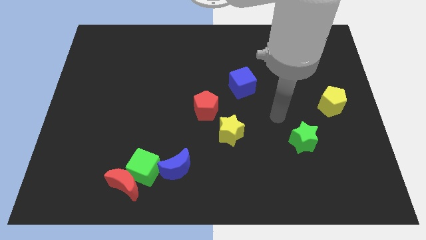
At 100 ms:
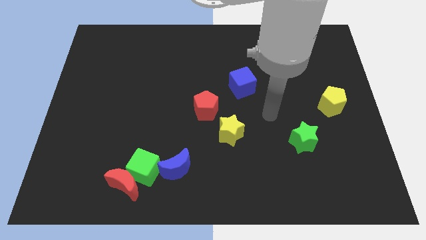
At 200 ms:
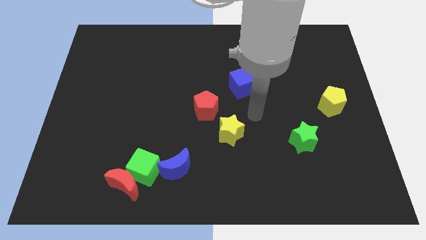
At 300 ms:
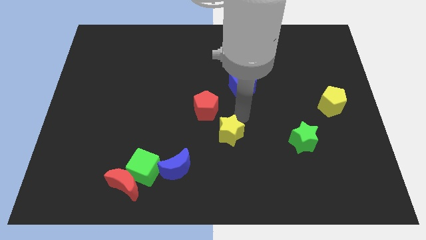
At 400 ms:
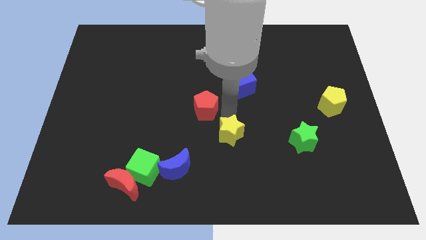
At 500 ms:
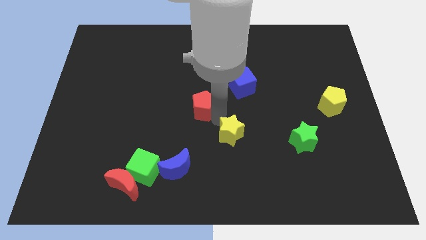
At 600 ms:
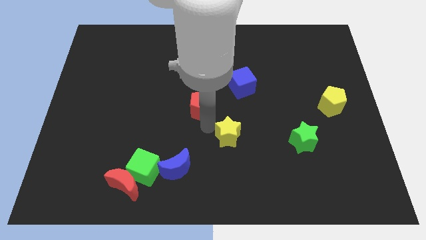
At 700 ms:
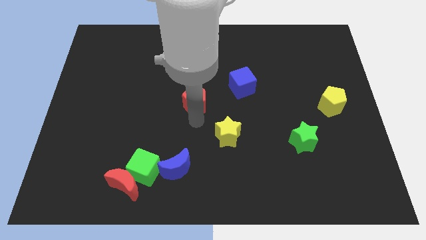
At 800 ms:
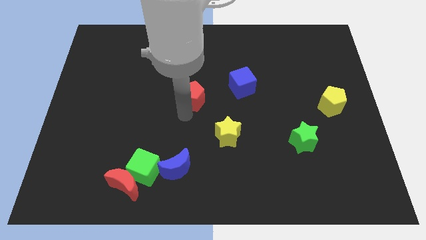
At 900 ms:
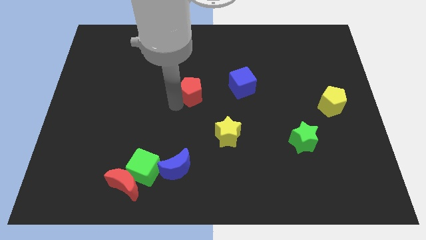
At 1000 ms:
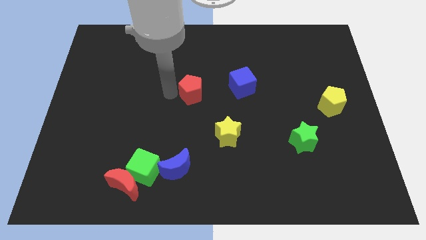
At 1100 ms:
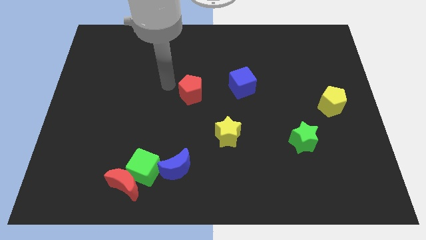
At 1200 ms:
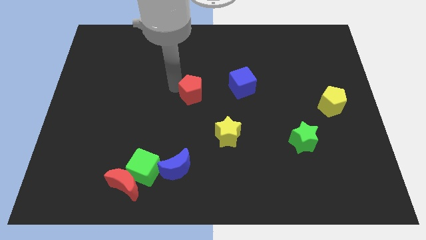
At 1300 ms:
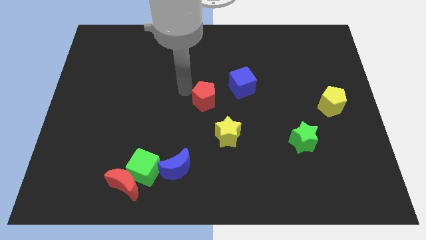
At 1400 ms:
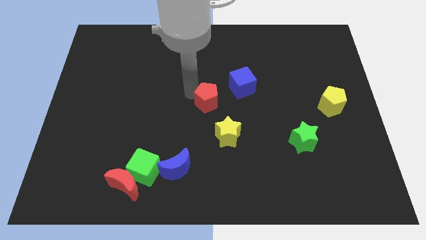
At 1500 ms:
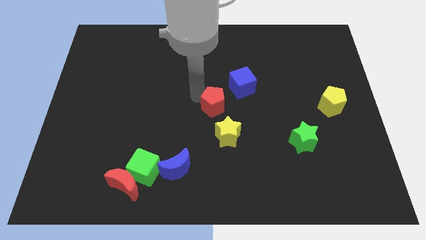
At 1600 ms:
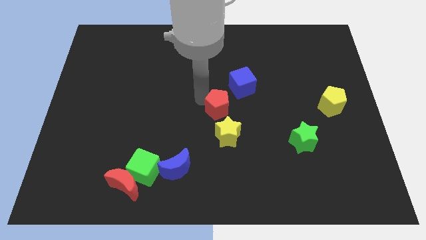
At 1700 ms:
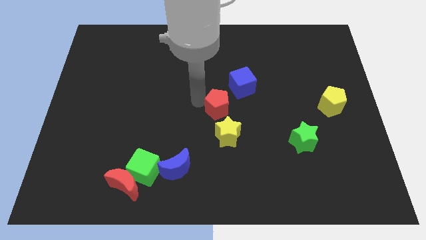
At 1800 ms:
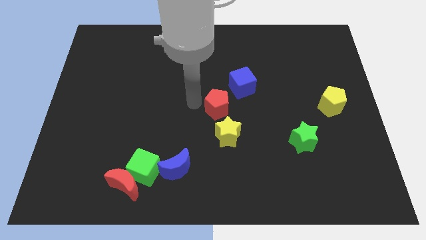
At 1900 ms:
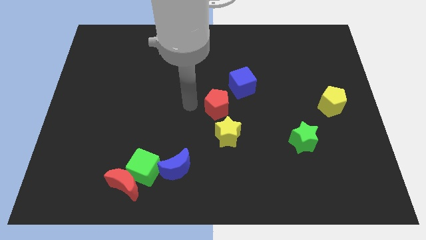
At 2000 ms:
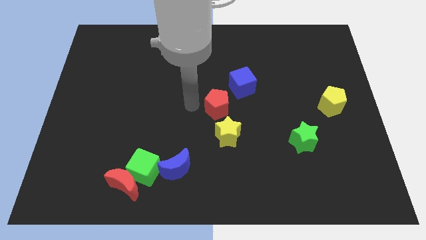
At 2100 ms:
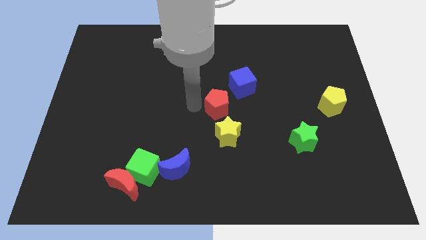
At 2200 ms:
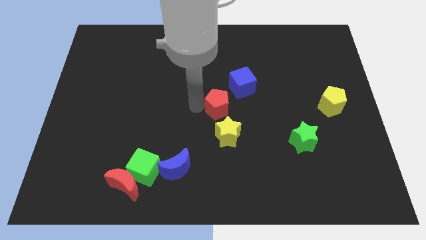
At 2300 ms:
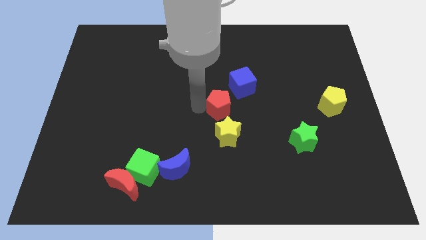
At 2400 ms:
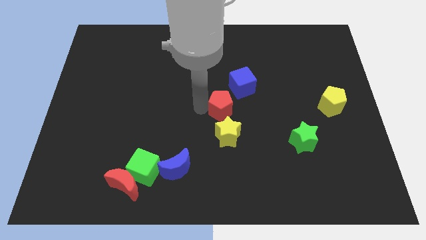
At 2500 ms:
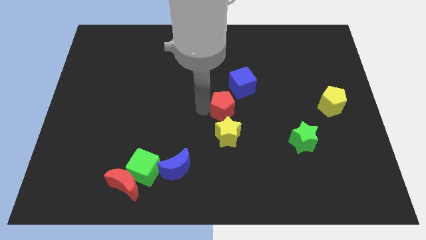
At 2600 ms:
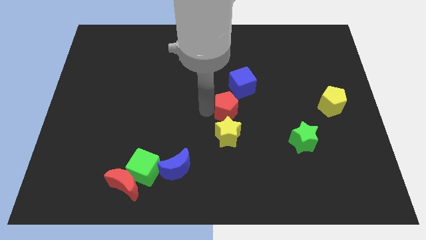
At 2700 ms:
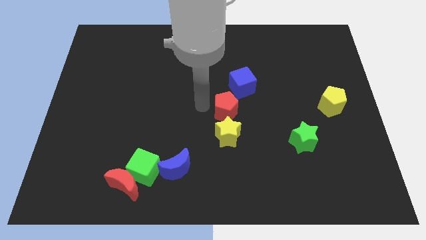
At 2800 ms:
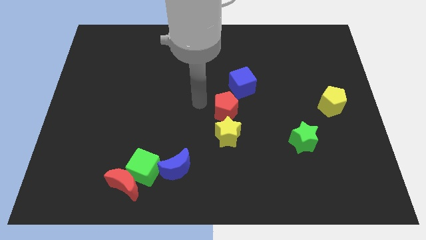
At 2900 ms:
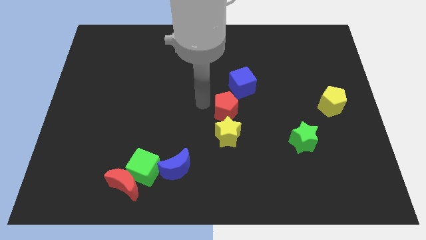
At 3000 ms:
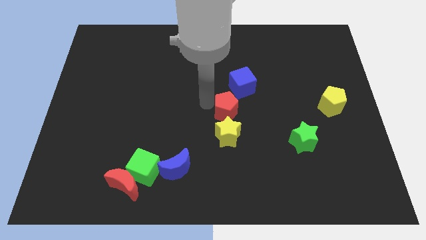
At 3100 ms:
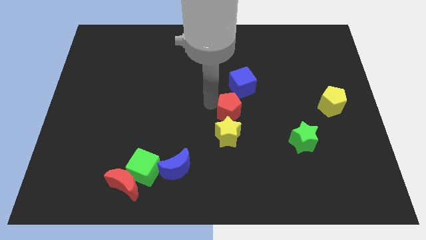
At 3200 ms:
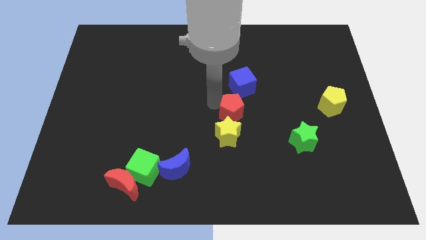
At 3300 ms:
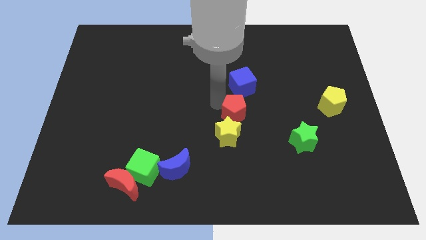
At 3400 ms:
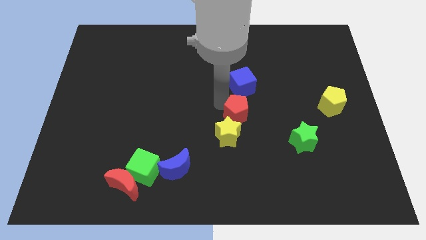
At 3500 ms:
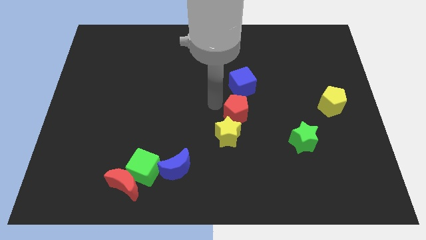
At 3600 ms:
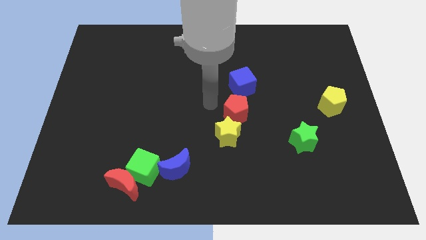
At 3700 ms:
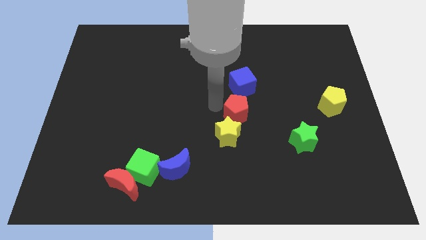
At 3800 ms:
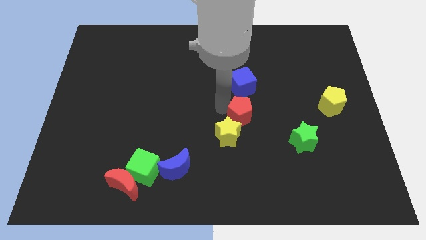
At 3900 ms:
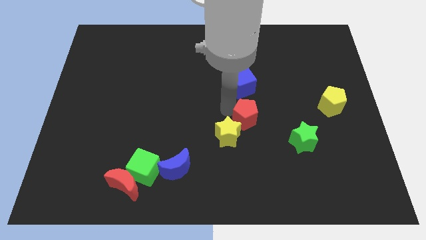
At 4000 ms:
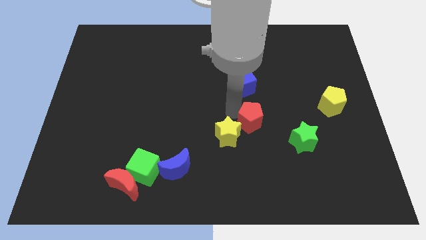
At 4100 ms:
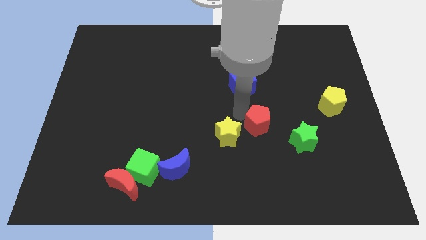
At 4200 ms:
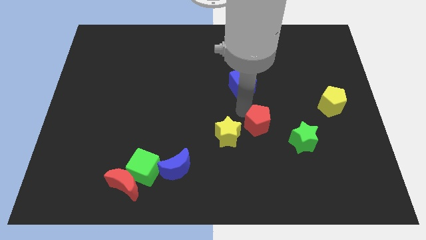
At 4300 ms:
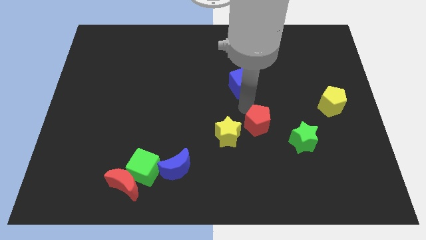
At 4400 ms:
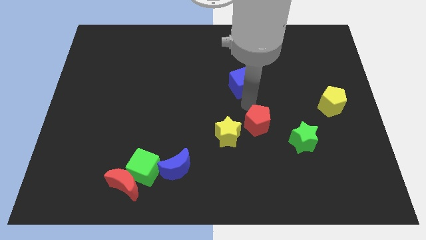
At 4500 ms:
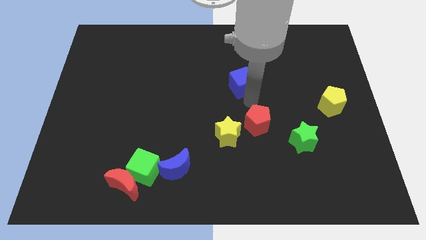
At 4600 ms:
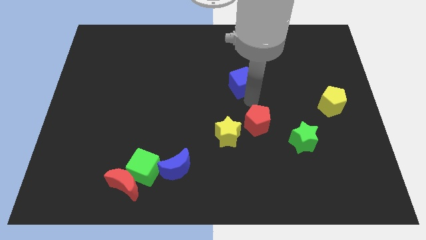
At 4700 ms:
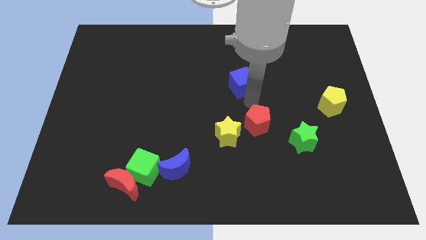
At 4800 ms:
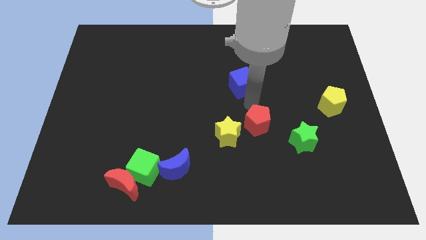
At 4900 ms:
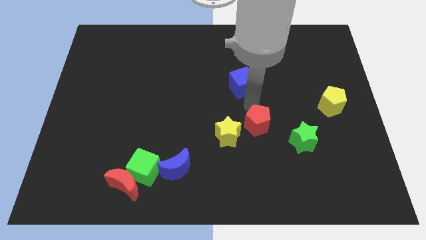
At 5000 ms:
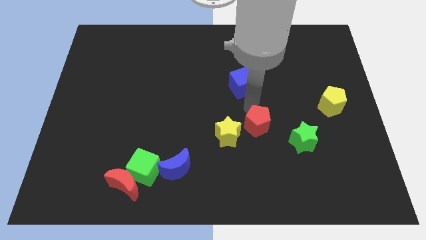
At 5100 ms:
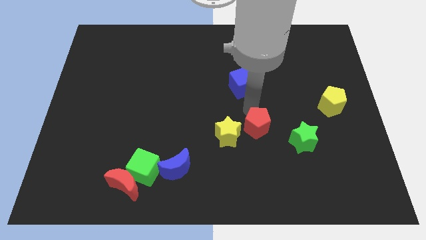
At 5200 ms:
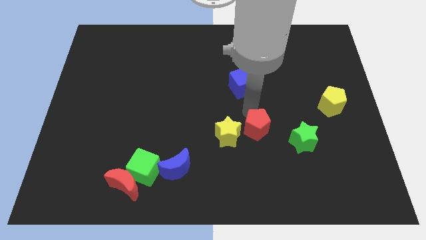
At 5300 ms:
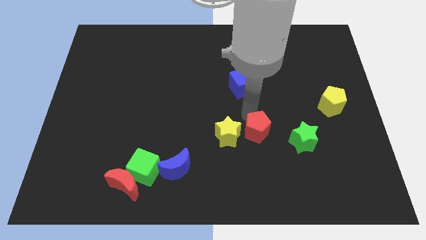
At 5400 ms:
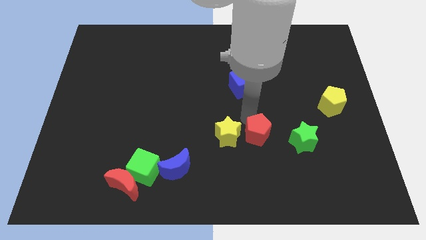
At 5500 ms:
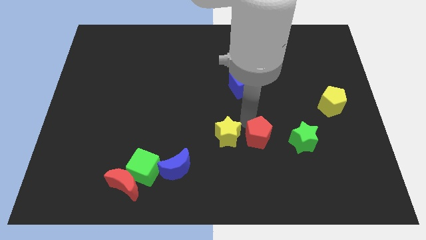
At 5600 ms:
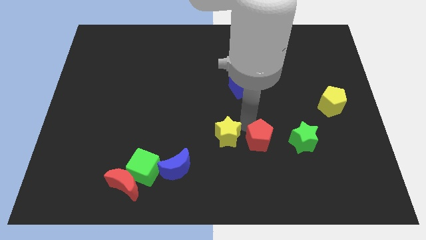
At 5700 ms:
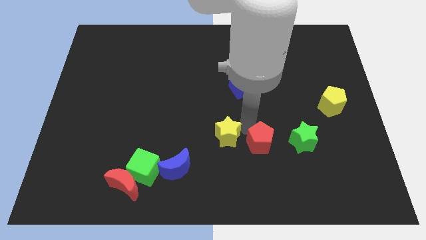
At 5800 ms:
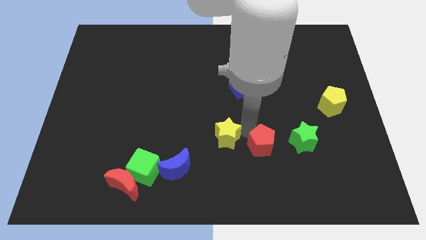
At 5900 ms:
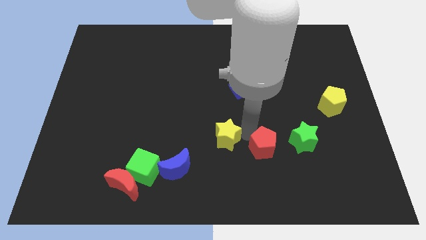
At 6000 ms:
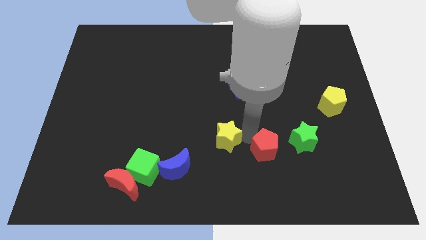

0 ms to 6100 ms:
move the red pentagon to the bottom left of the green star

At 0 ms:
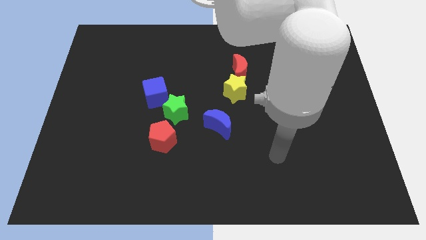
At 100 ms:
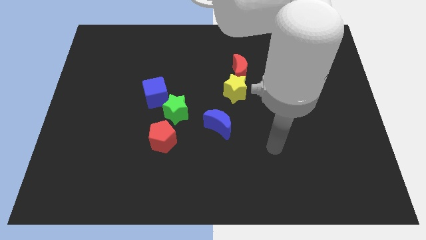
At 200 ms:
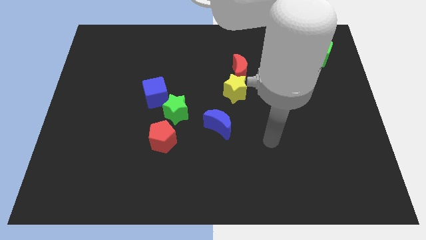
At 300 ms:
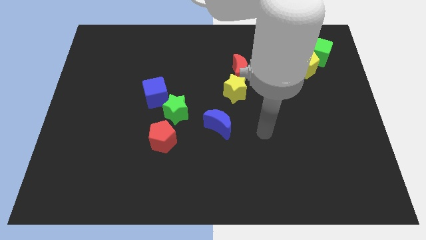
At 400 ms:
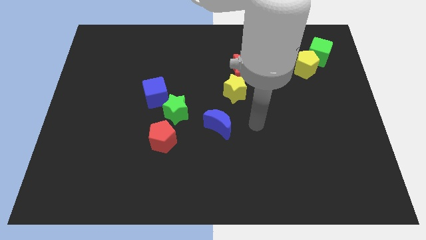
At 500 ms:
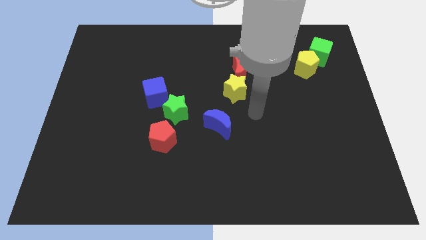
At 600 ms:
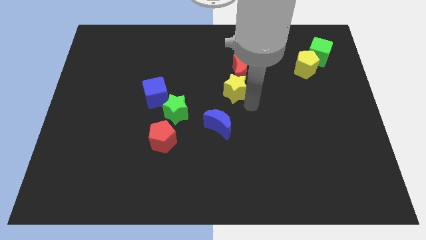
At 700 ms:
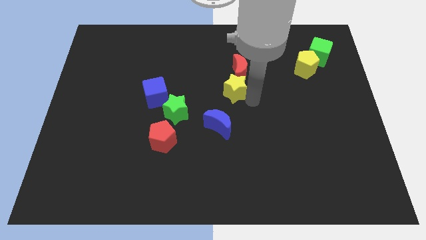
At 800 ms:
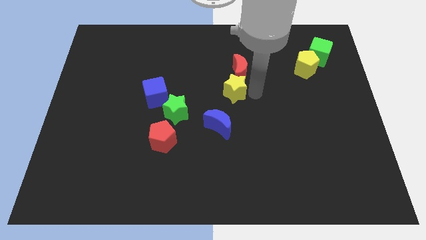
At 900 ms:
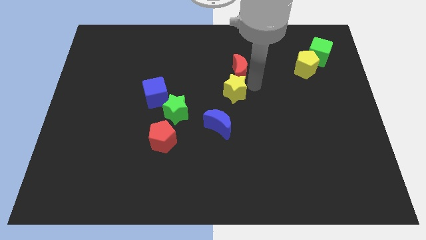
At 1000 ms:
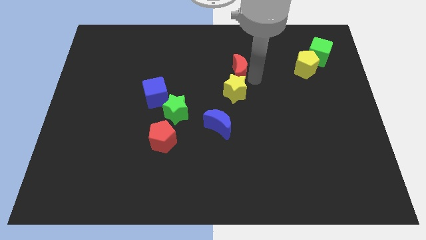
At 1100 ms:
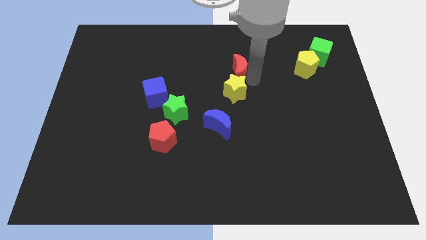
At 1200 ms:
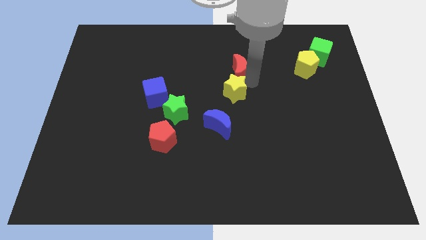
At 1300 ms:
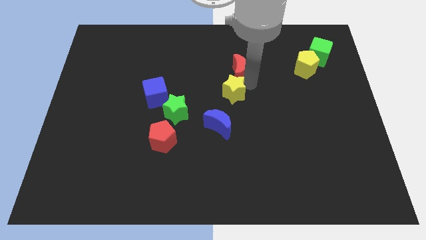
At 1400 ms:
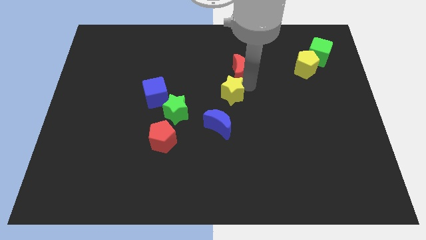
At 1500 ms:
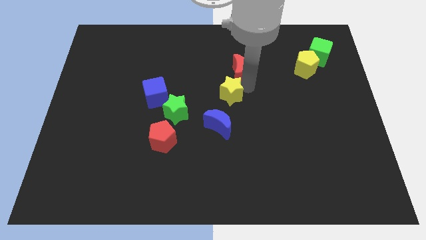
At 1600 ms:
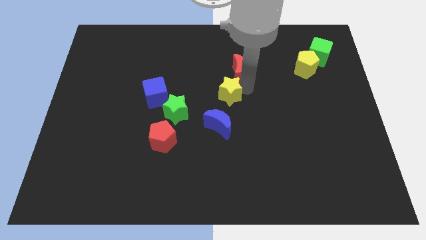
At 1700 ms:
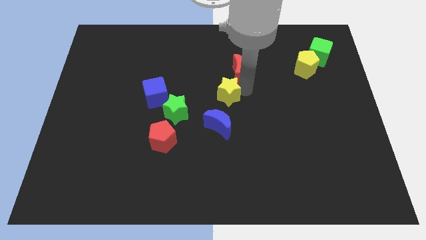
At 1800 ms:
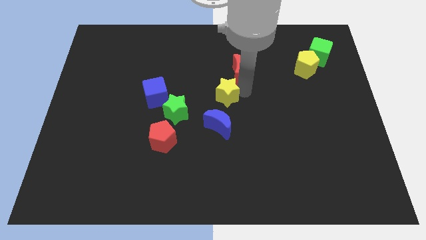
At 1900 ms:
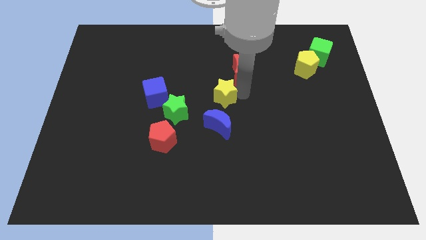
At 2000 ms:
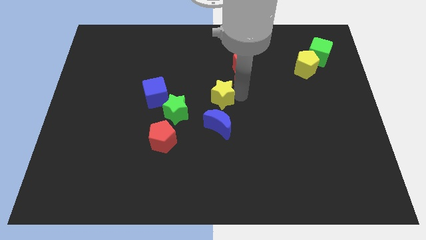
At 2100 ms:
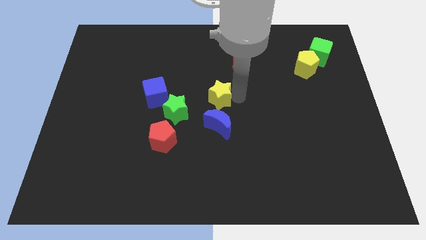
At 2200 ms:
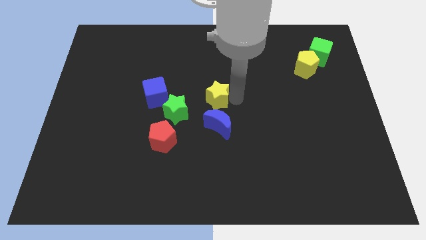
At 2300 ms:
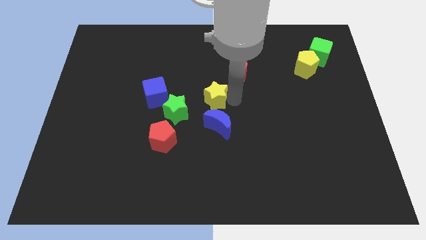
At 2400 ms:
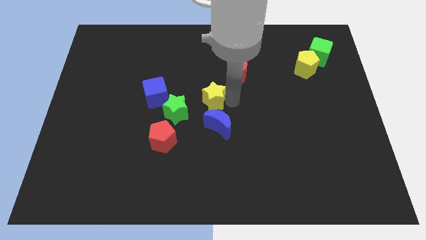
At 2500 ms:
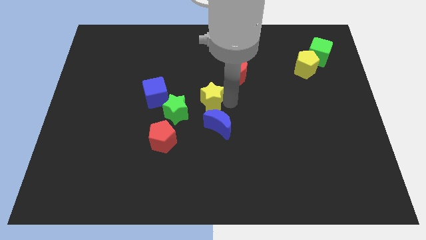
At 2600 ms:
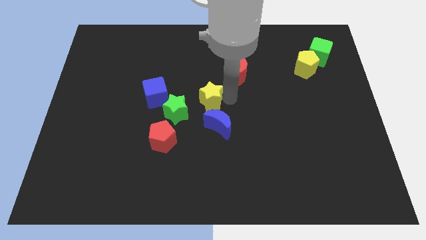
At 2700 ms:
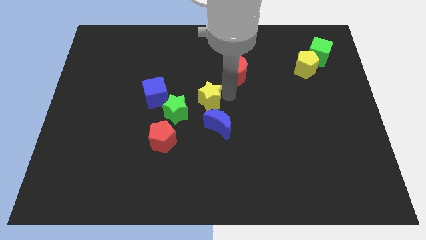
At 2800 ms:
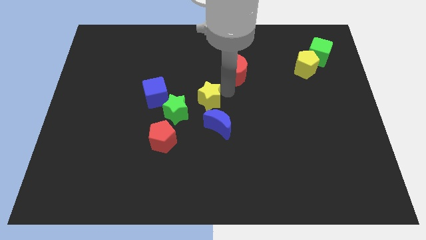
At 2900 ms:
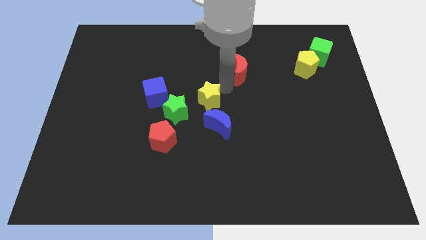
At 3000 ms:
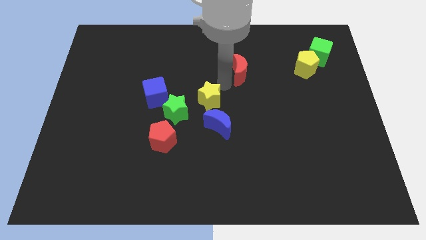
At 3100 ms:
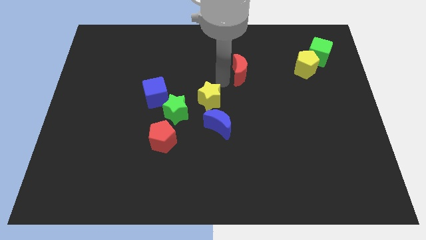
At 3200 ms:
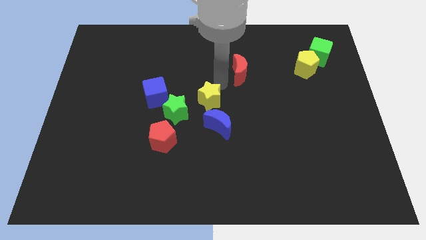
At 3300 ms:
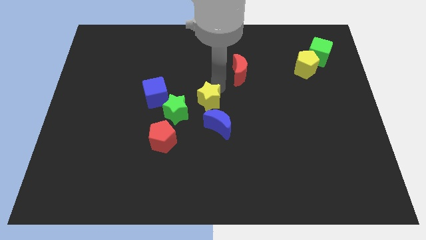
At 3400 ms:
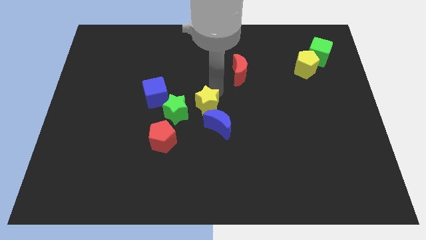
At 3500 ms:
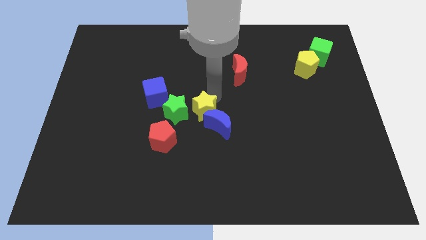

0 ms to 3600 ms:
move the yellow star to the top right of the red pentagon
